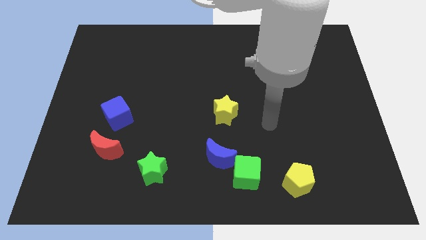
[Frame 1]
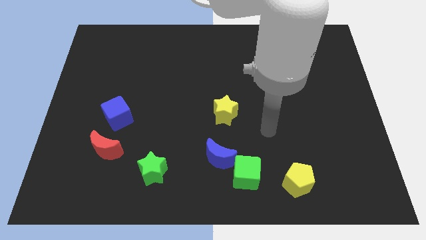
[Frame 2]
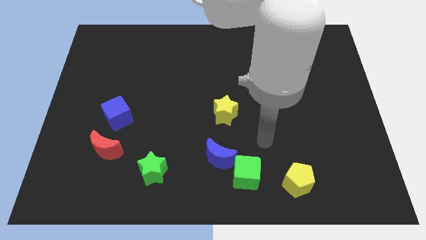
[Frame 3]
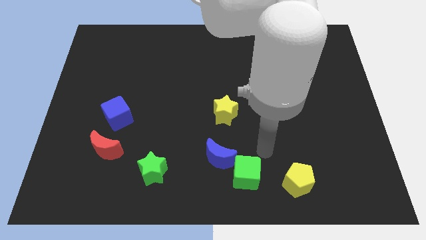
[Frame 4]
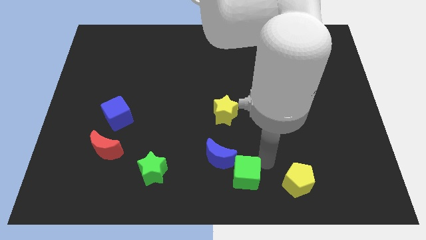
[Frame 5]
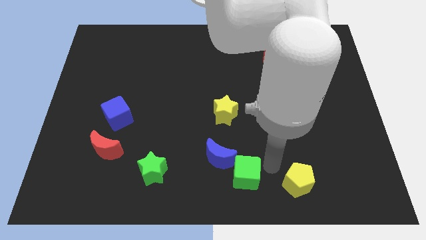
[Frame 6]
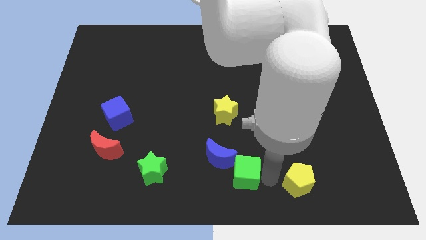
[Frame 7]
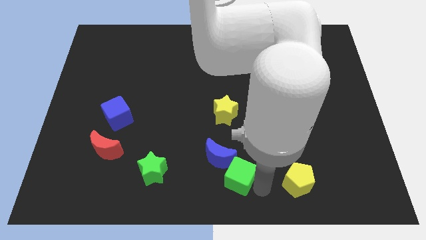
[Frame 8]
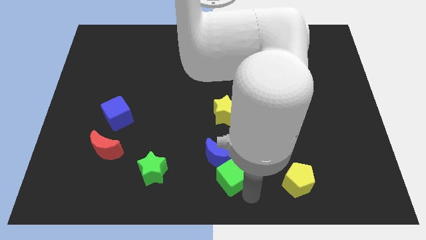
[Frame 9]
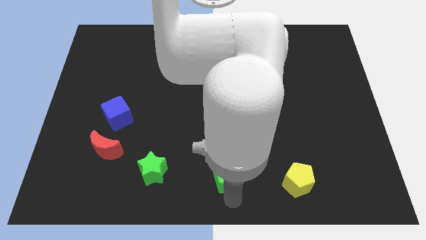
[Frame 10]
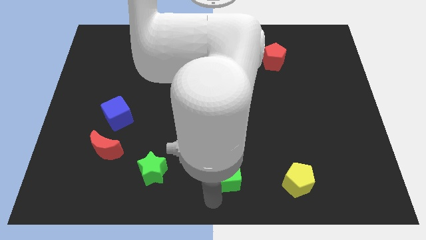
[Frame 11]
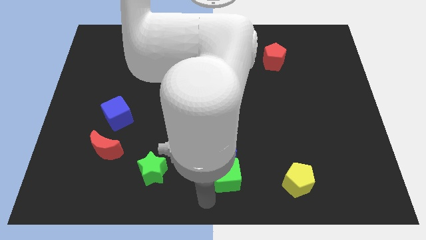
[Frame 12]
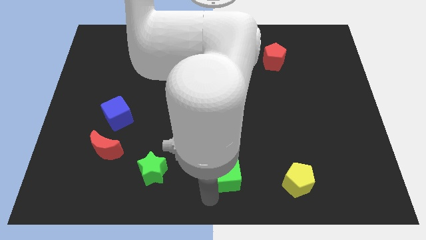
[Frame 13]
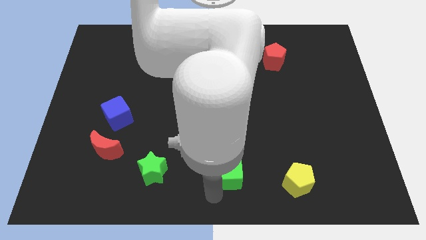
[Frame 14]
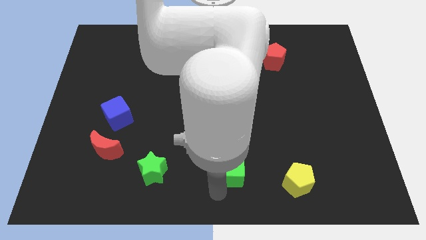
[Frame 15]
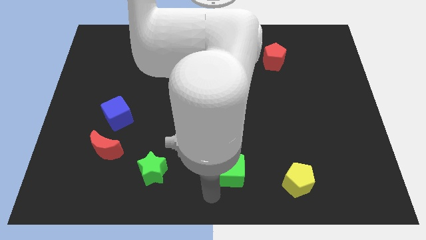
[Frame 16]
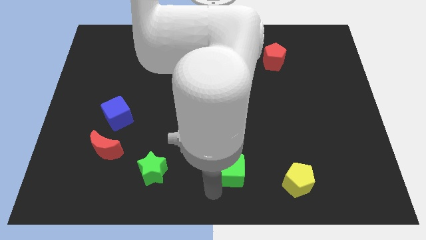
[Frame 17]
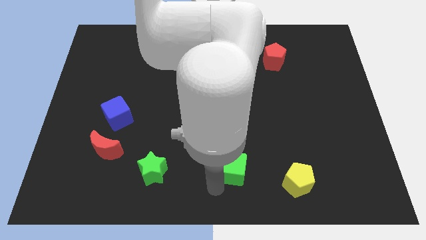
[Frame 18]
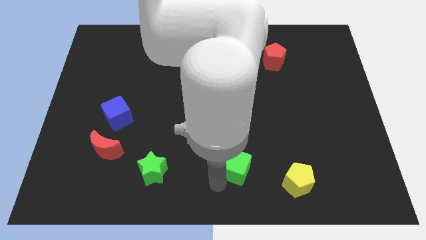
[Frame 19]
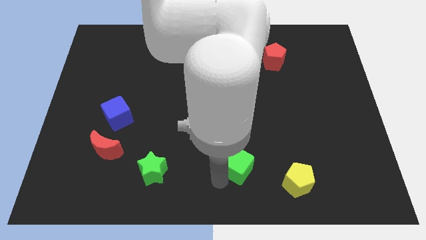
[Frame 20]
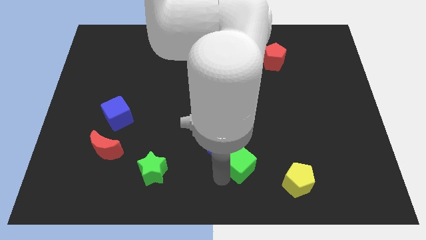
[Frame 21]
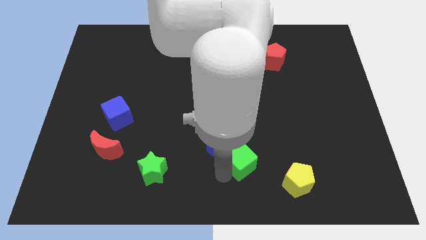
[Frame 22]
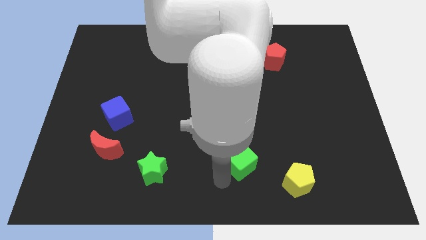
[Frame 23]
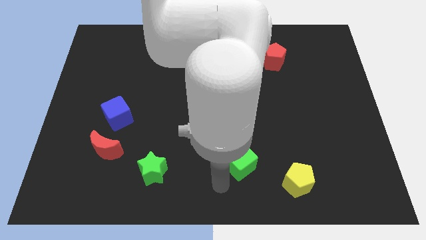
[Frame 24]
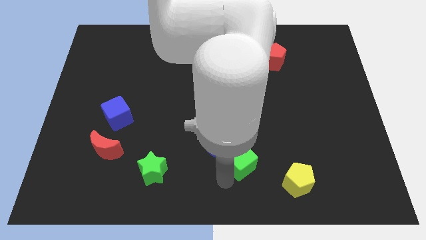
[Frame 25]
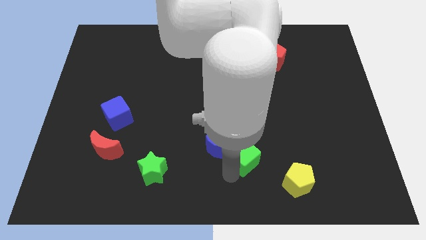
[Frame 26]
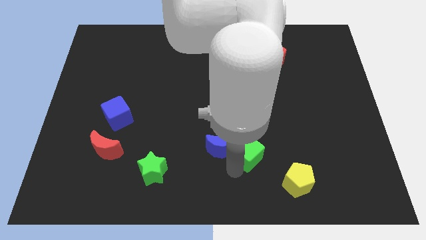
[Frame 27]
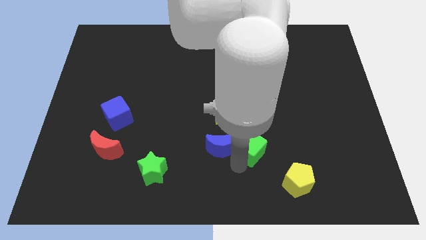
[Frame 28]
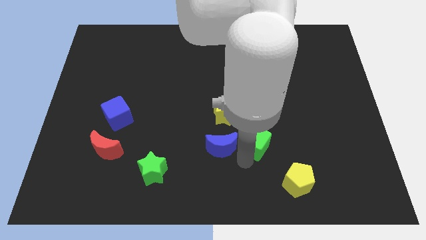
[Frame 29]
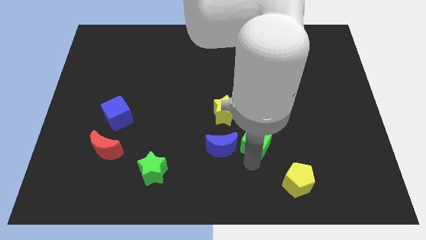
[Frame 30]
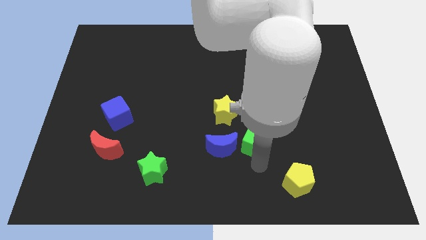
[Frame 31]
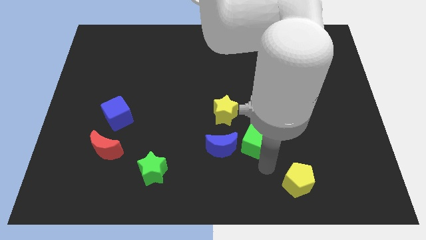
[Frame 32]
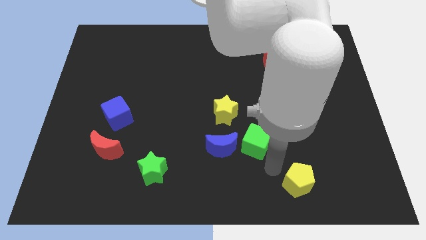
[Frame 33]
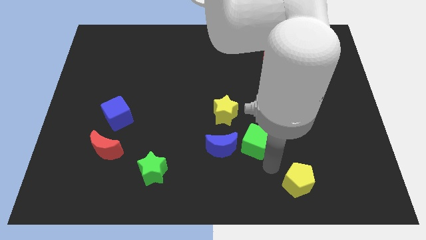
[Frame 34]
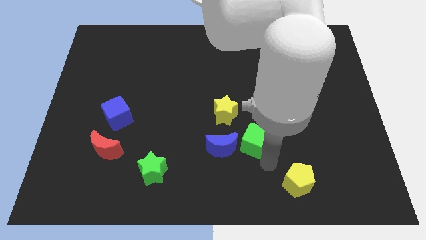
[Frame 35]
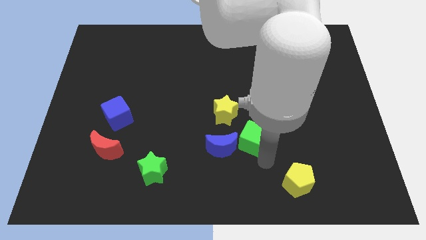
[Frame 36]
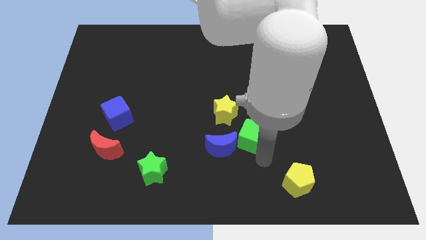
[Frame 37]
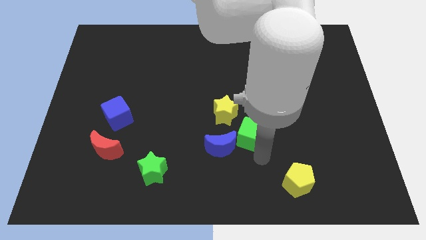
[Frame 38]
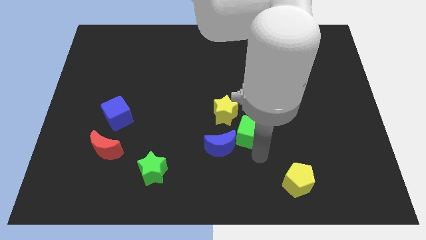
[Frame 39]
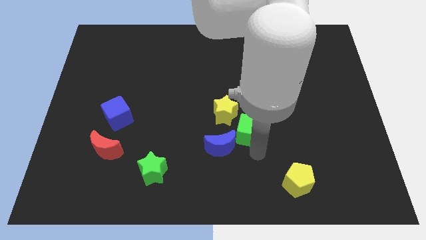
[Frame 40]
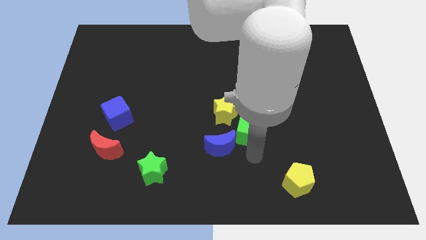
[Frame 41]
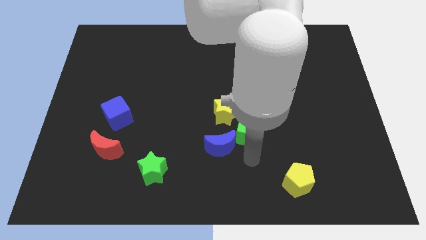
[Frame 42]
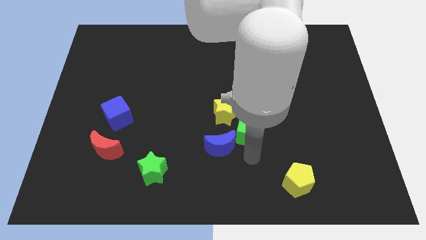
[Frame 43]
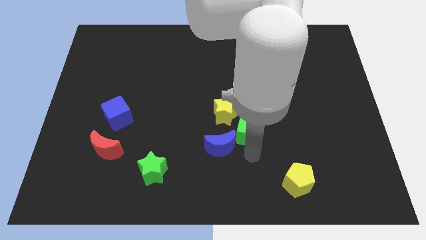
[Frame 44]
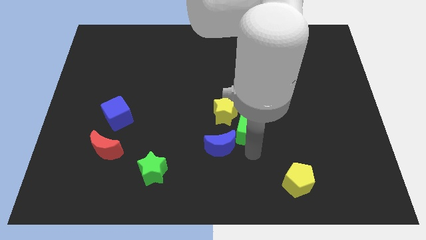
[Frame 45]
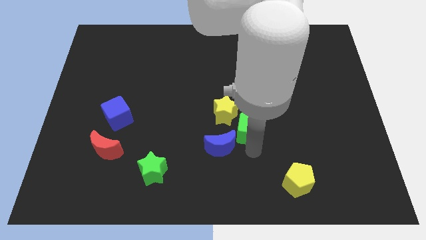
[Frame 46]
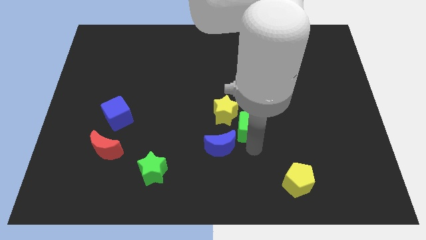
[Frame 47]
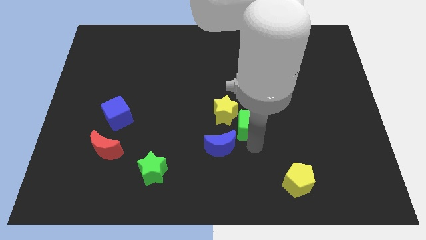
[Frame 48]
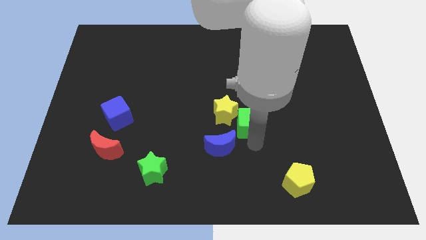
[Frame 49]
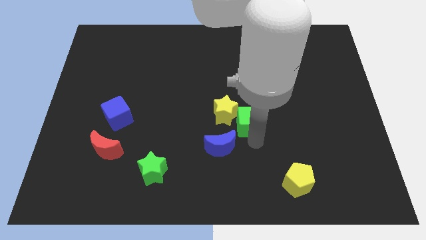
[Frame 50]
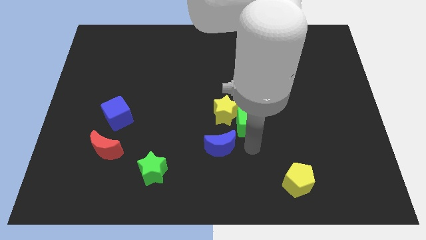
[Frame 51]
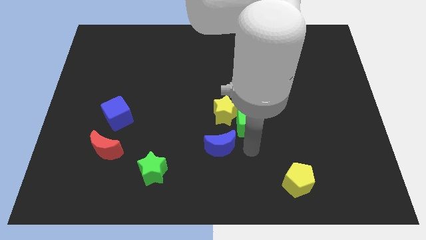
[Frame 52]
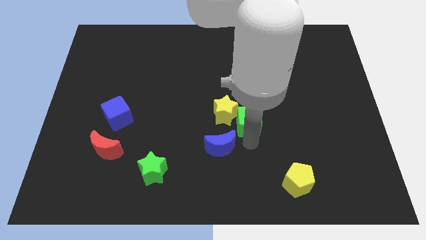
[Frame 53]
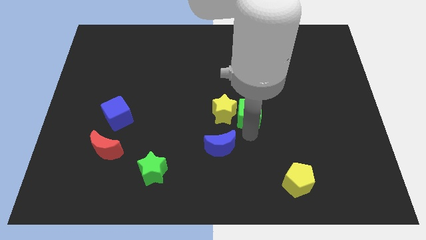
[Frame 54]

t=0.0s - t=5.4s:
put the green cube diagonally up and to the right of the yellow star

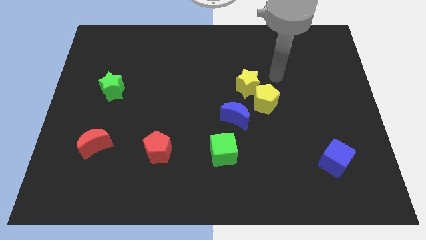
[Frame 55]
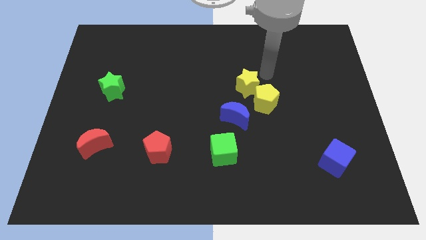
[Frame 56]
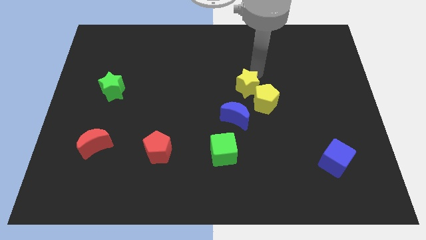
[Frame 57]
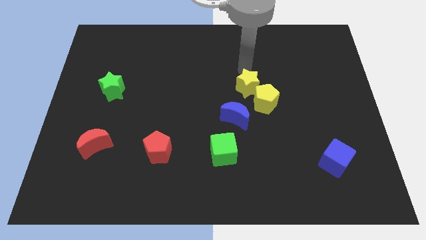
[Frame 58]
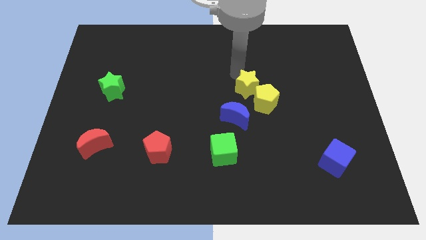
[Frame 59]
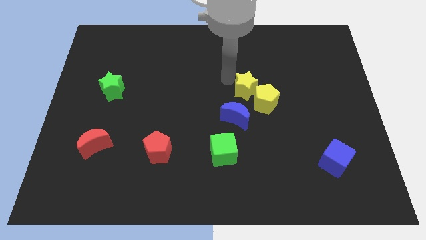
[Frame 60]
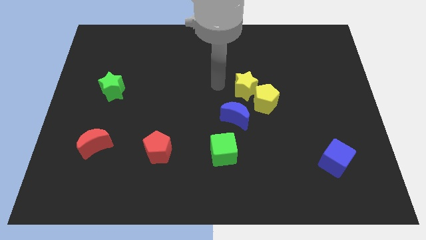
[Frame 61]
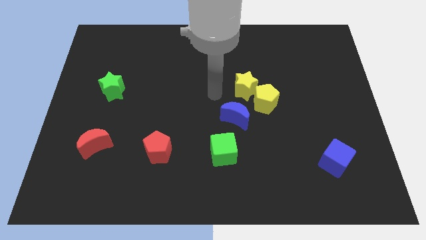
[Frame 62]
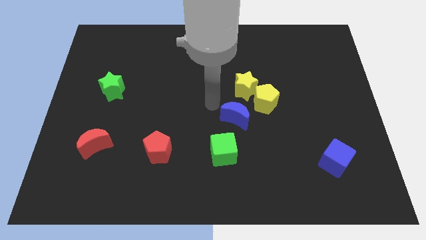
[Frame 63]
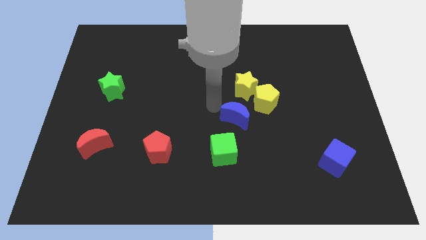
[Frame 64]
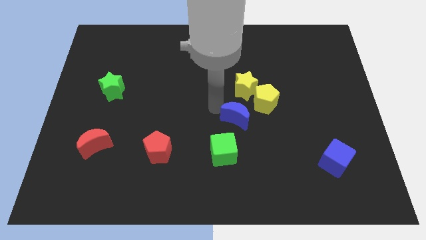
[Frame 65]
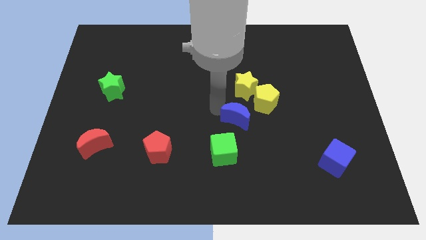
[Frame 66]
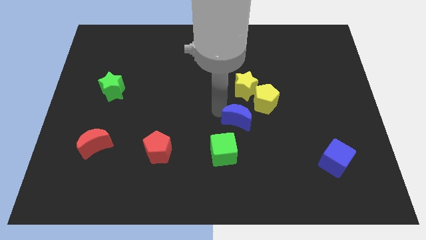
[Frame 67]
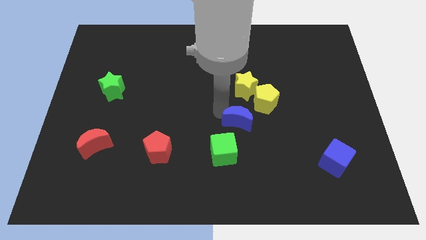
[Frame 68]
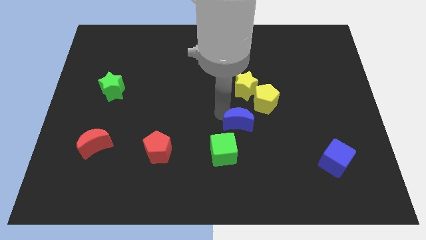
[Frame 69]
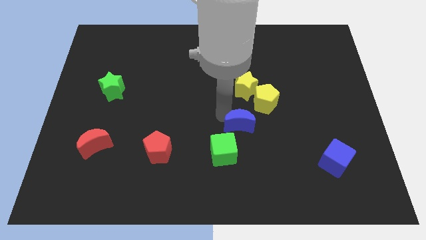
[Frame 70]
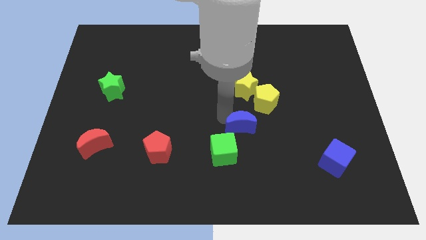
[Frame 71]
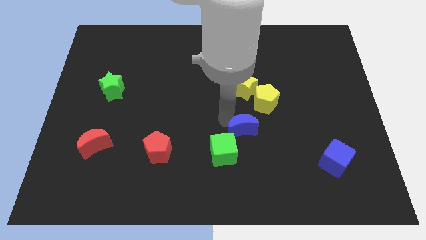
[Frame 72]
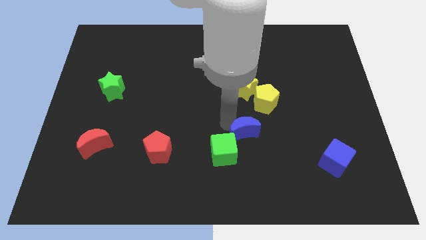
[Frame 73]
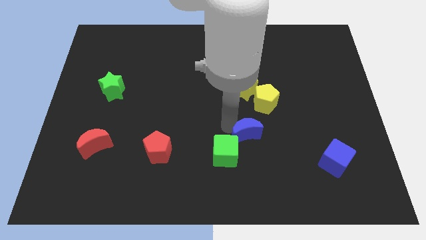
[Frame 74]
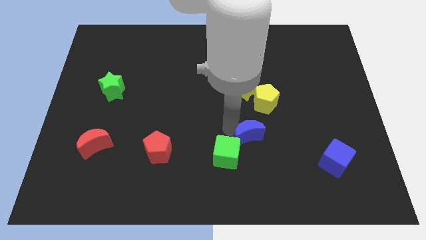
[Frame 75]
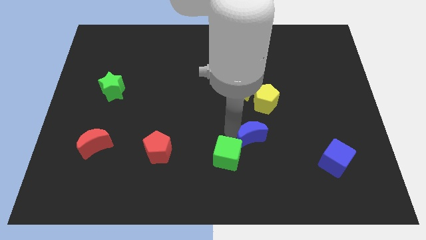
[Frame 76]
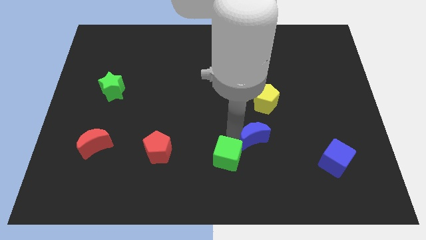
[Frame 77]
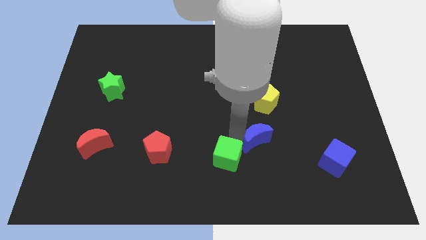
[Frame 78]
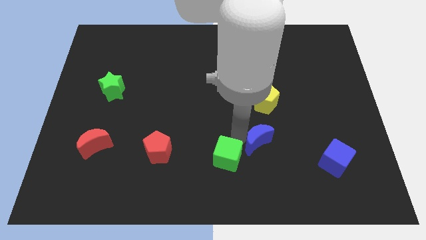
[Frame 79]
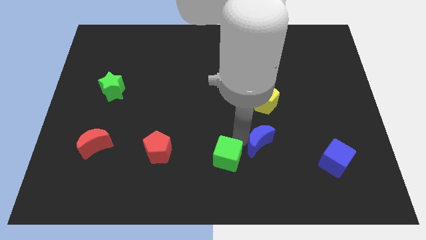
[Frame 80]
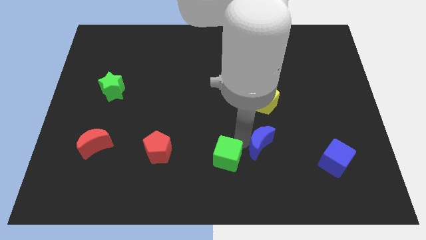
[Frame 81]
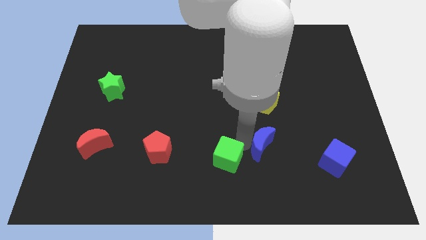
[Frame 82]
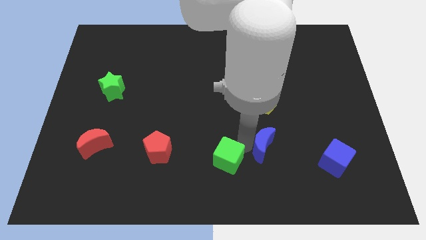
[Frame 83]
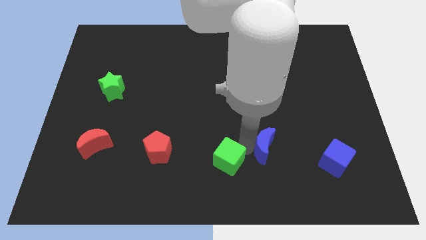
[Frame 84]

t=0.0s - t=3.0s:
move the blue moon left of the blue cube
